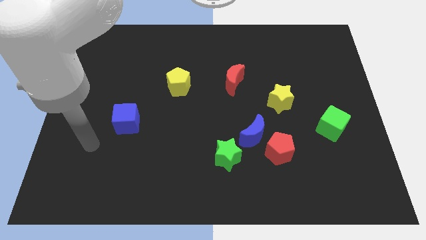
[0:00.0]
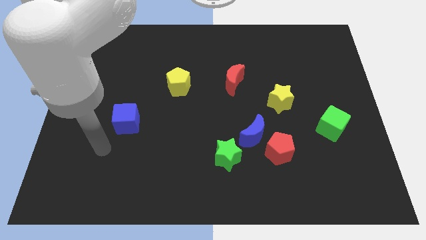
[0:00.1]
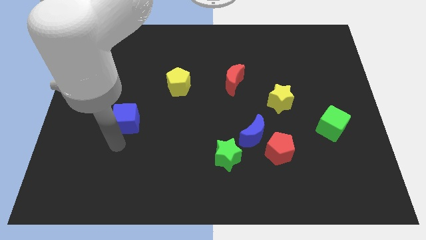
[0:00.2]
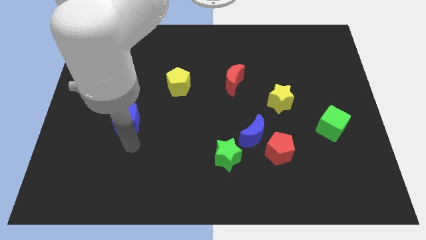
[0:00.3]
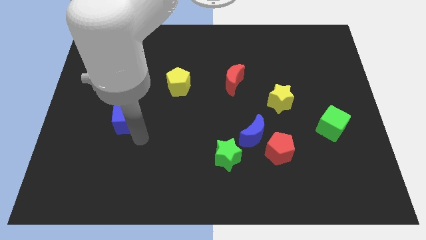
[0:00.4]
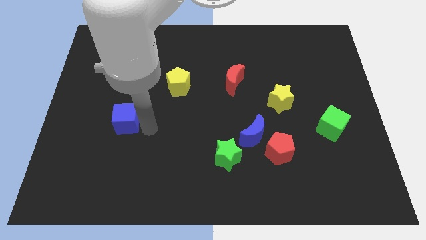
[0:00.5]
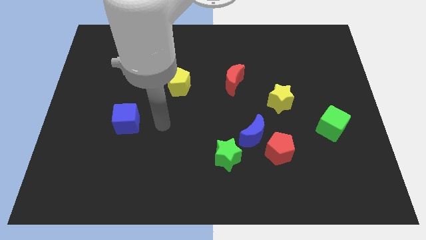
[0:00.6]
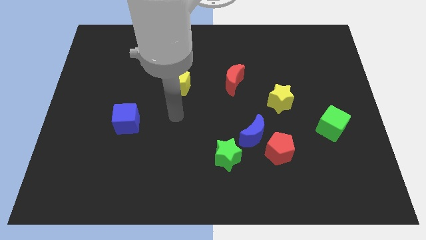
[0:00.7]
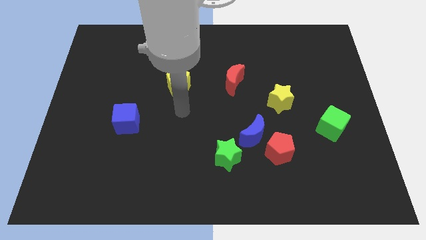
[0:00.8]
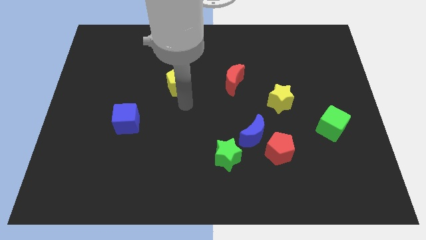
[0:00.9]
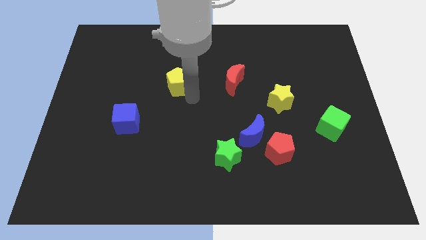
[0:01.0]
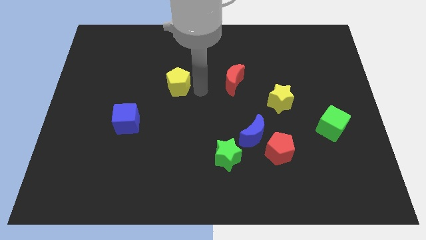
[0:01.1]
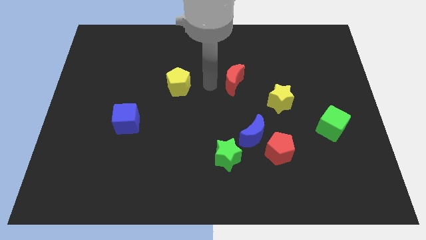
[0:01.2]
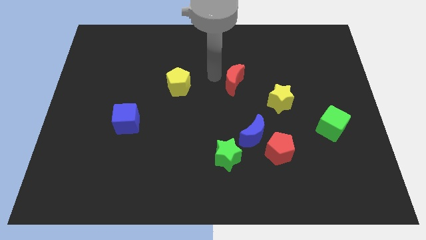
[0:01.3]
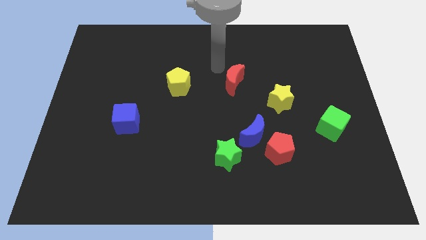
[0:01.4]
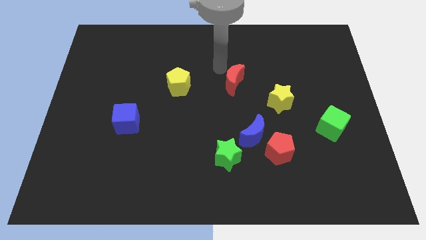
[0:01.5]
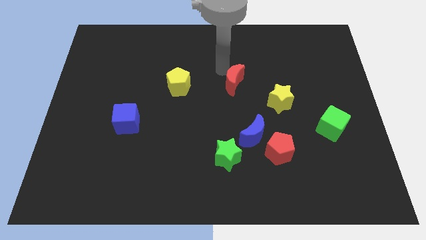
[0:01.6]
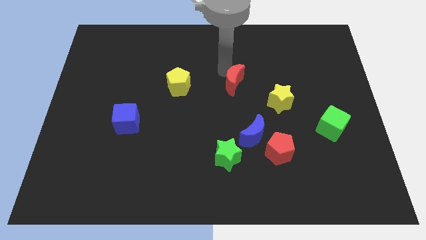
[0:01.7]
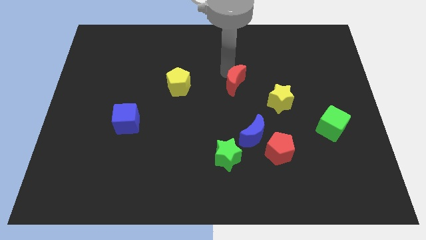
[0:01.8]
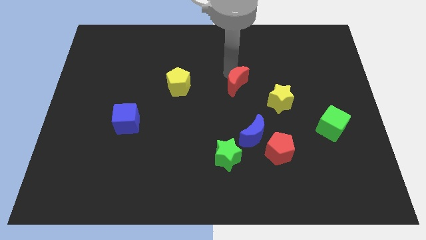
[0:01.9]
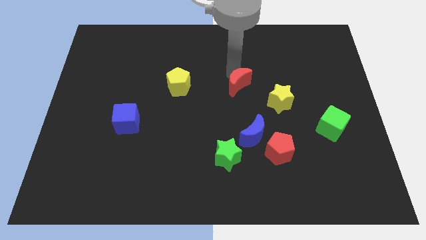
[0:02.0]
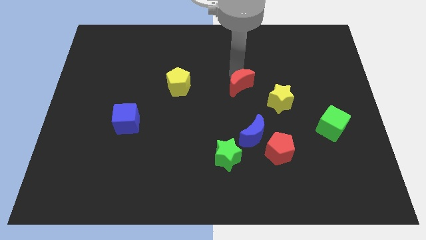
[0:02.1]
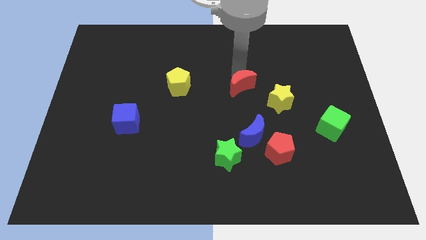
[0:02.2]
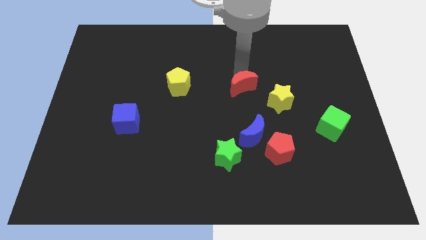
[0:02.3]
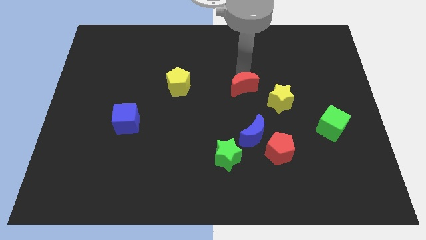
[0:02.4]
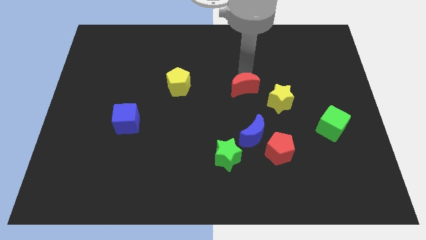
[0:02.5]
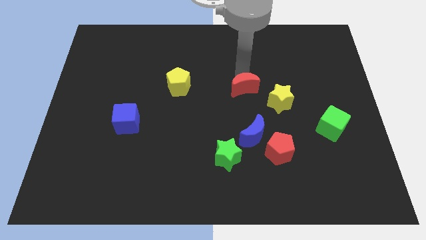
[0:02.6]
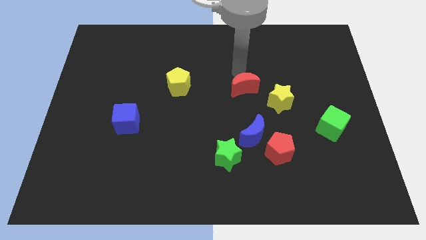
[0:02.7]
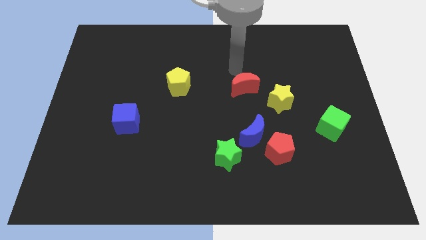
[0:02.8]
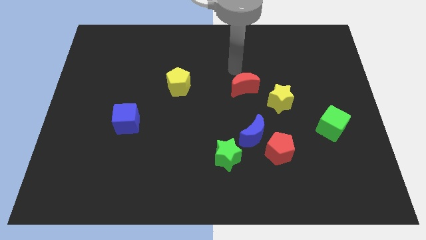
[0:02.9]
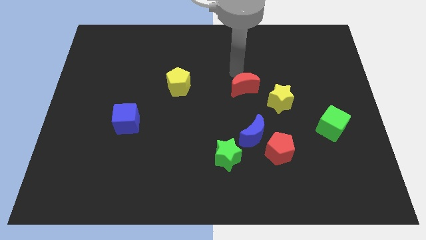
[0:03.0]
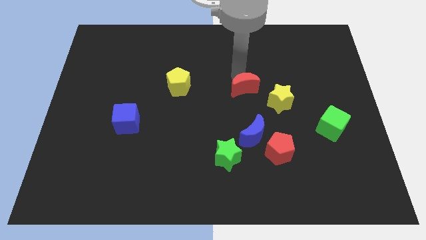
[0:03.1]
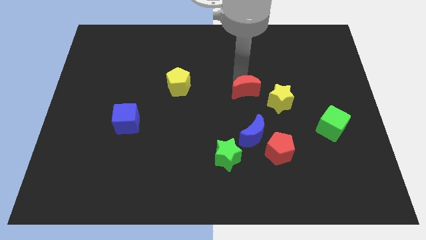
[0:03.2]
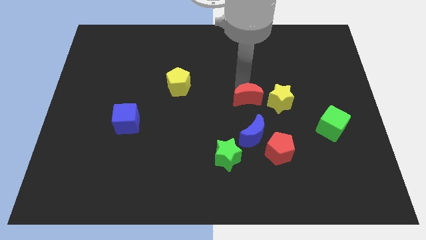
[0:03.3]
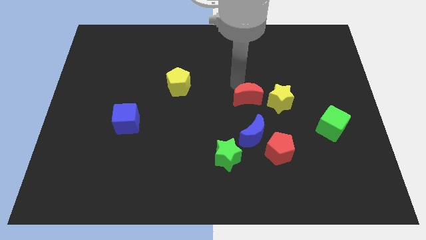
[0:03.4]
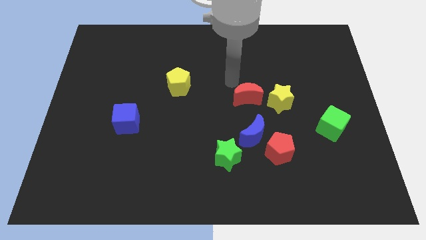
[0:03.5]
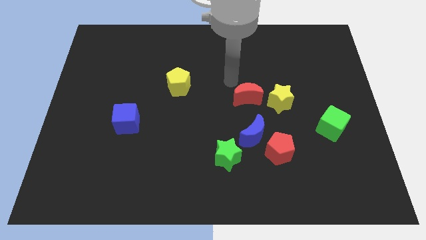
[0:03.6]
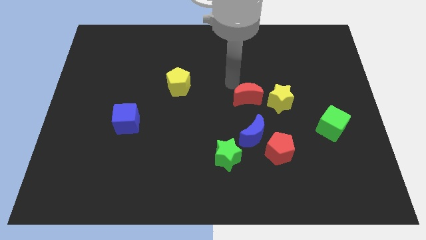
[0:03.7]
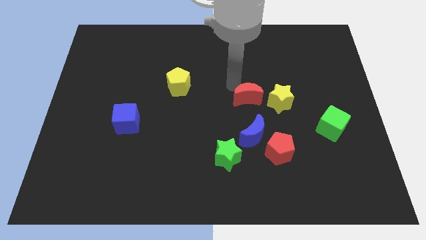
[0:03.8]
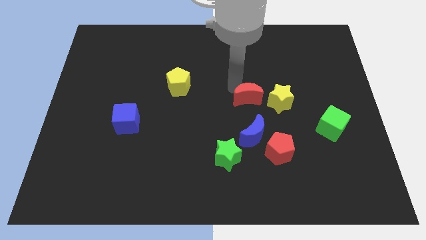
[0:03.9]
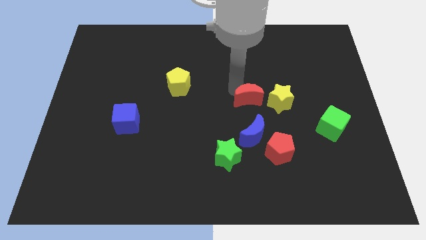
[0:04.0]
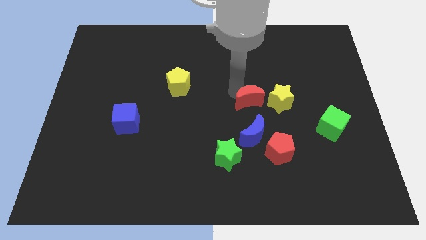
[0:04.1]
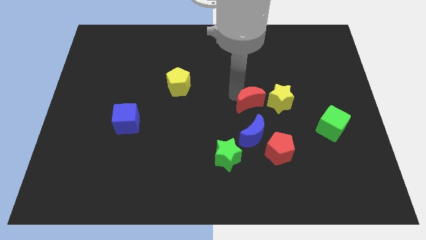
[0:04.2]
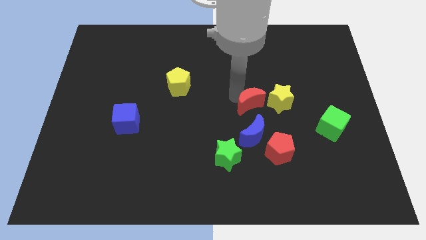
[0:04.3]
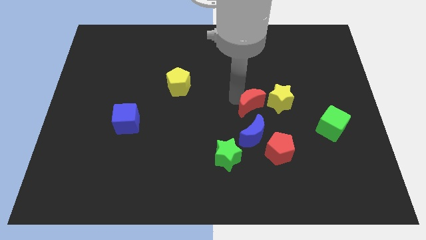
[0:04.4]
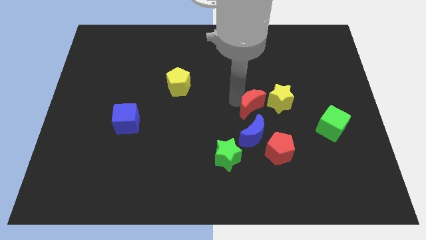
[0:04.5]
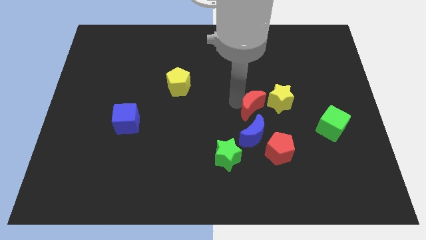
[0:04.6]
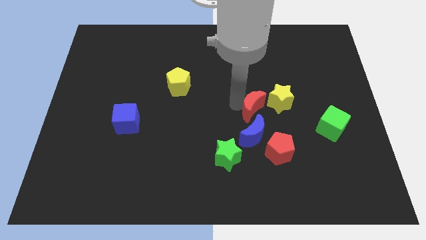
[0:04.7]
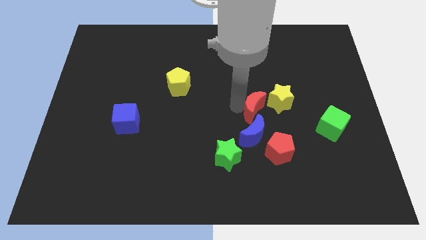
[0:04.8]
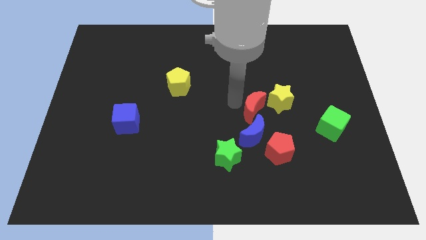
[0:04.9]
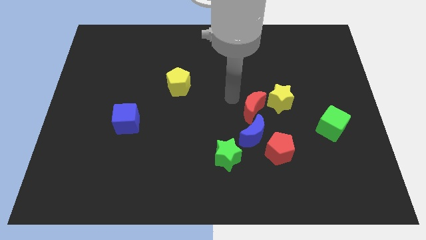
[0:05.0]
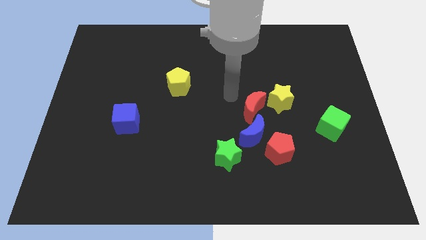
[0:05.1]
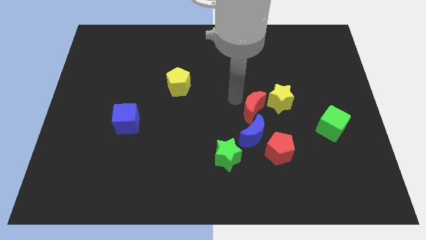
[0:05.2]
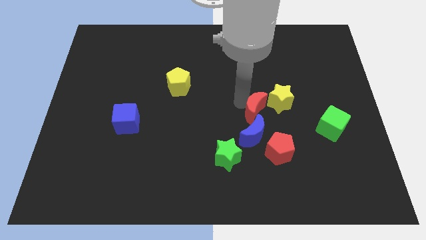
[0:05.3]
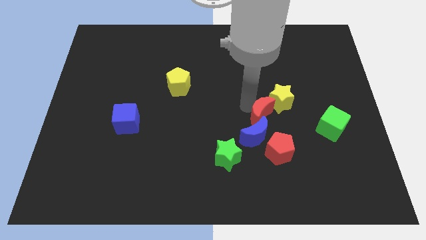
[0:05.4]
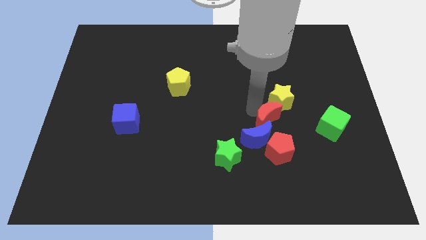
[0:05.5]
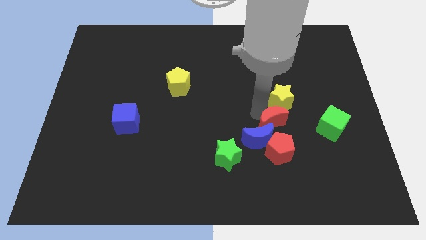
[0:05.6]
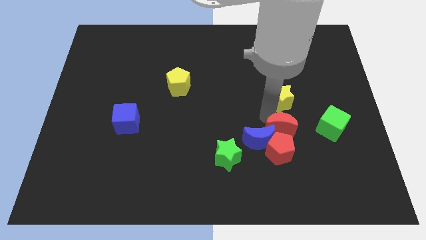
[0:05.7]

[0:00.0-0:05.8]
put the red moon close to the red pentagon
